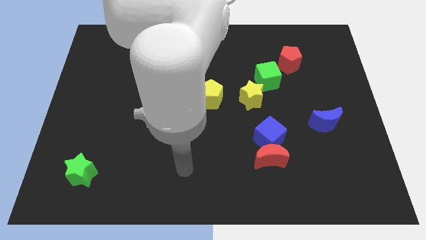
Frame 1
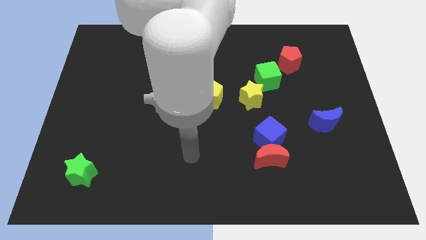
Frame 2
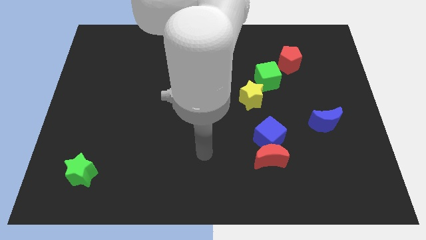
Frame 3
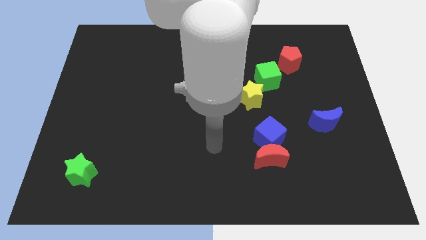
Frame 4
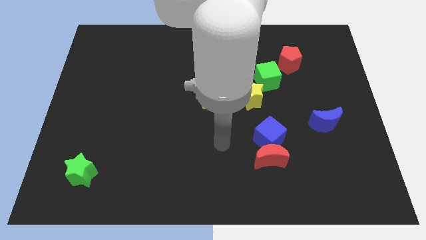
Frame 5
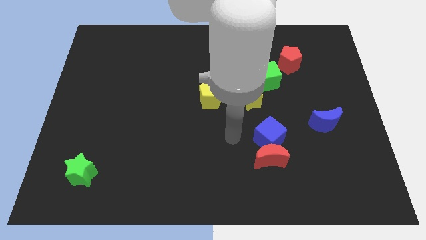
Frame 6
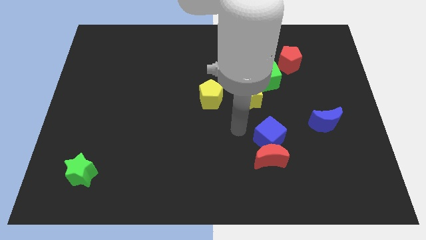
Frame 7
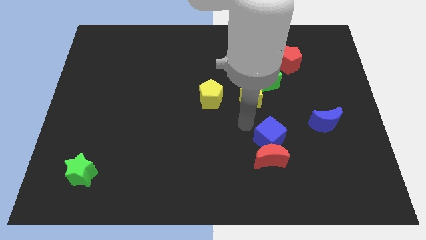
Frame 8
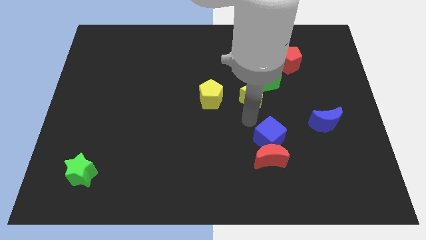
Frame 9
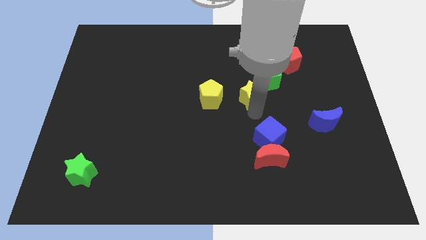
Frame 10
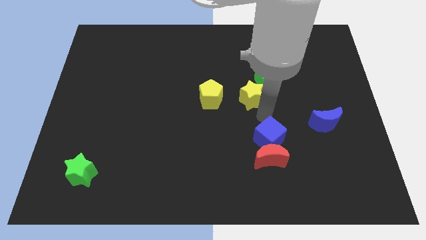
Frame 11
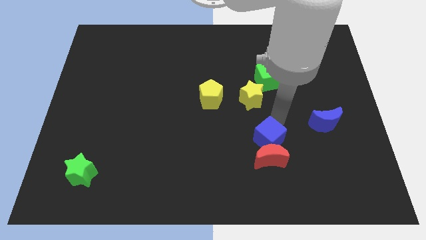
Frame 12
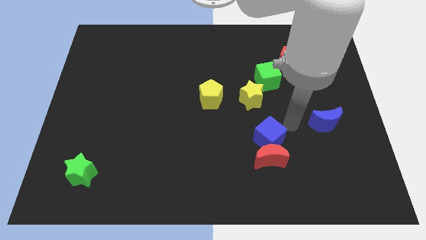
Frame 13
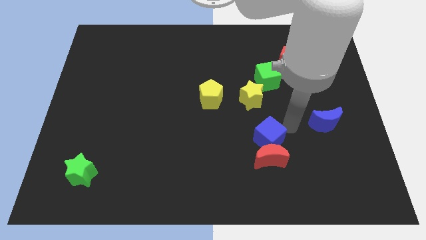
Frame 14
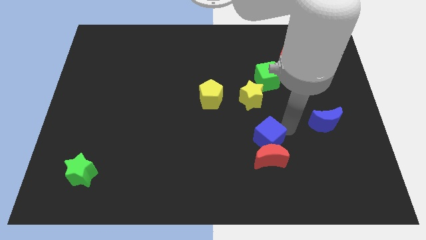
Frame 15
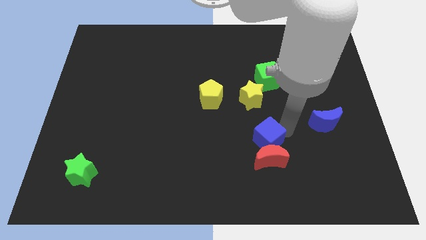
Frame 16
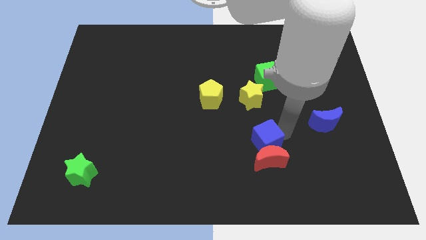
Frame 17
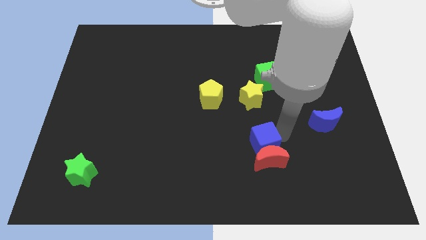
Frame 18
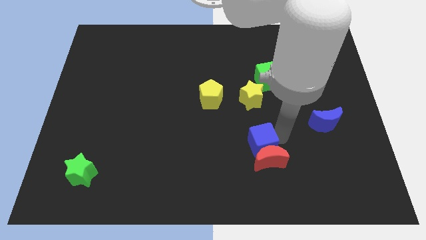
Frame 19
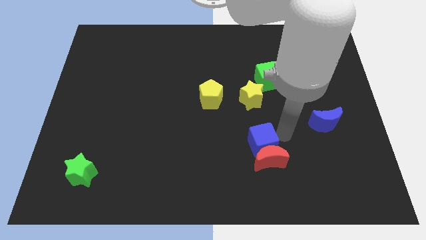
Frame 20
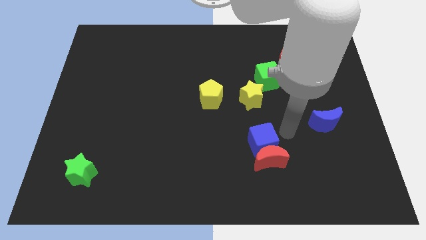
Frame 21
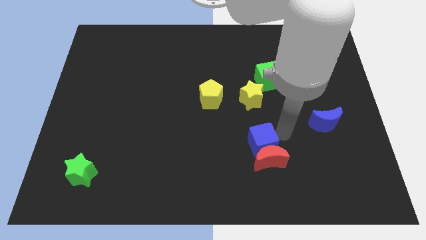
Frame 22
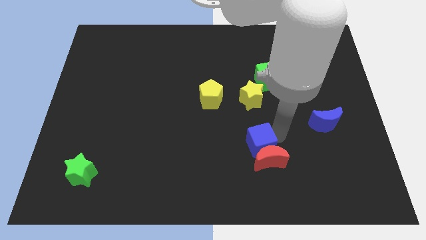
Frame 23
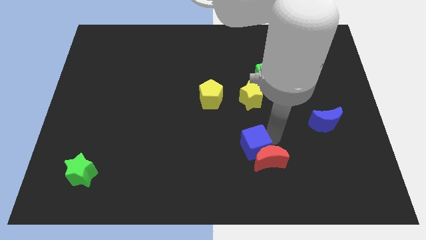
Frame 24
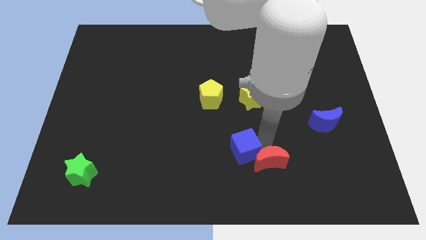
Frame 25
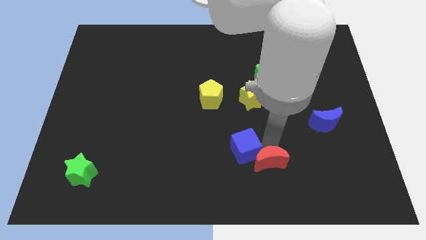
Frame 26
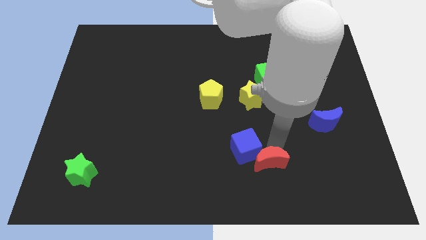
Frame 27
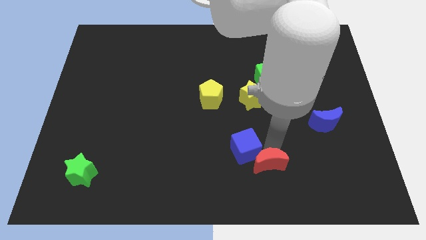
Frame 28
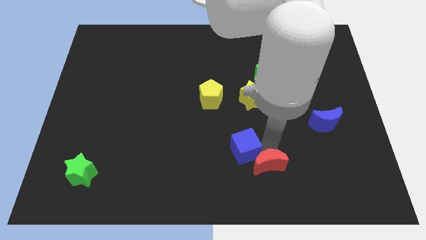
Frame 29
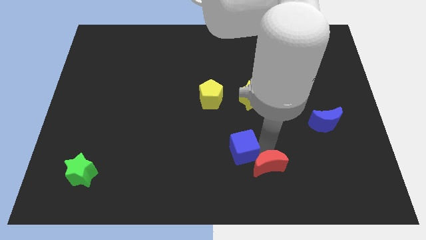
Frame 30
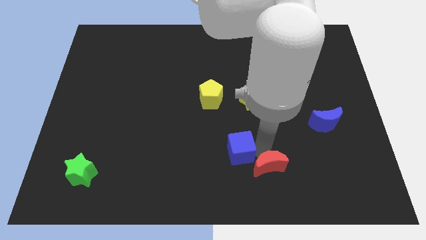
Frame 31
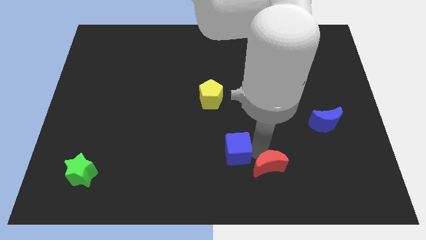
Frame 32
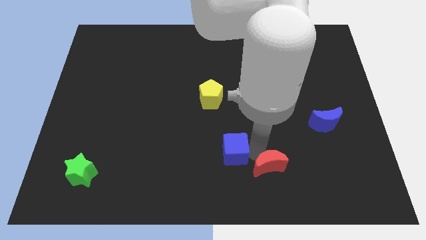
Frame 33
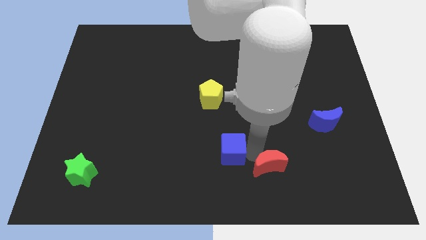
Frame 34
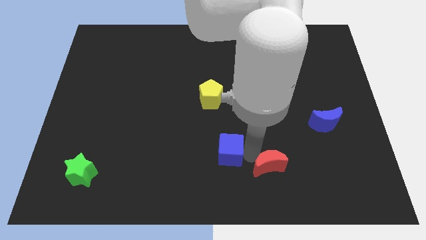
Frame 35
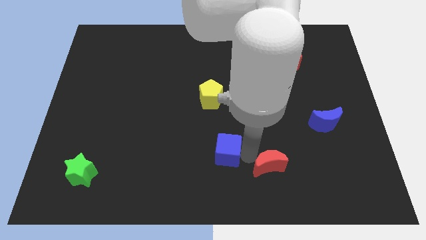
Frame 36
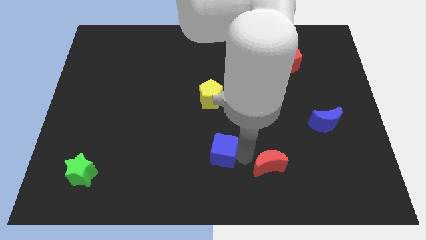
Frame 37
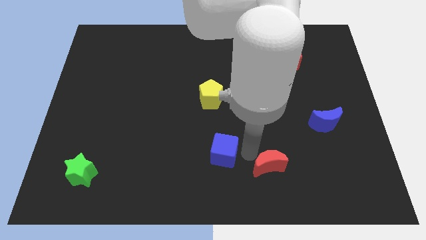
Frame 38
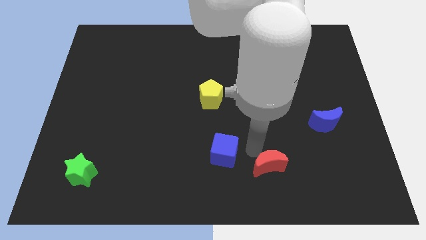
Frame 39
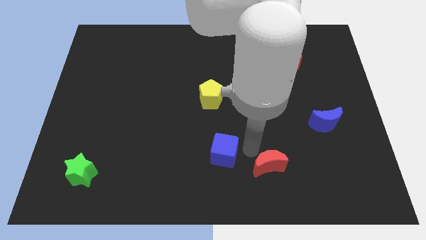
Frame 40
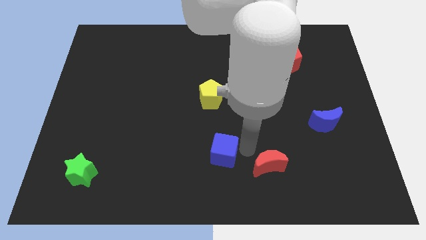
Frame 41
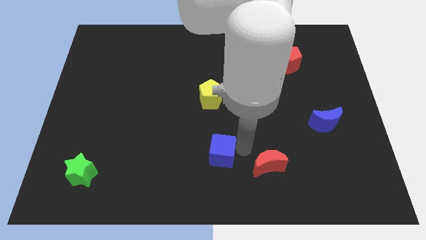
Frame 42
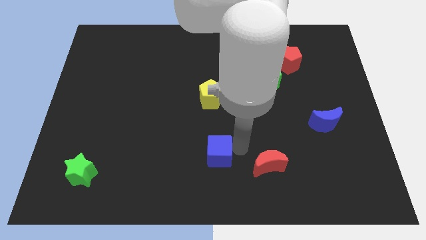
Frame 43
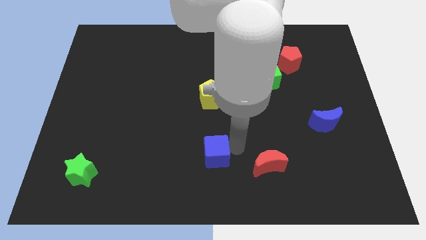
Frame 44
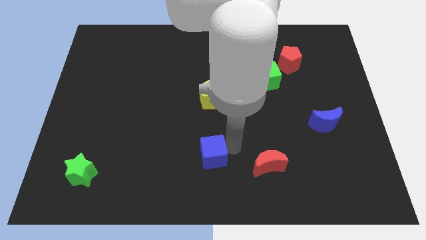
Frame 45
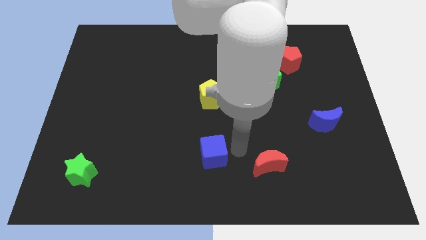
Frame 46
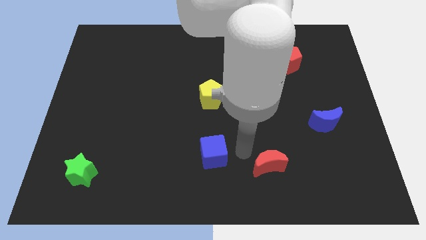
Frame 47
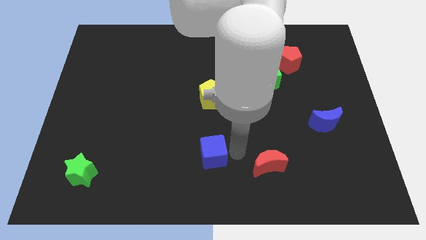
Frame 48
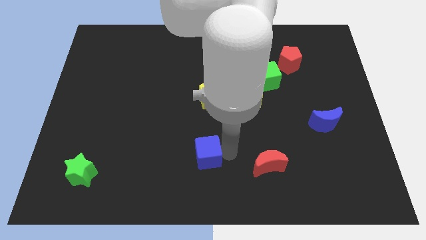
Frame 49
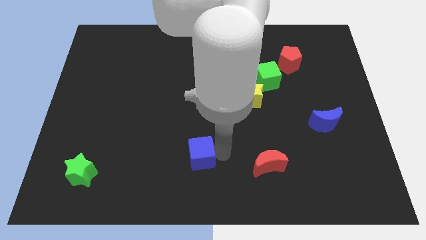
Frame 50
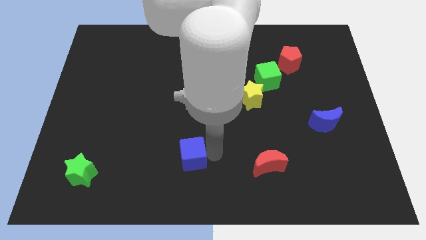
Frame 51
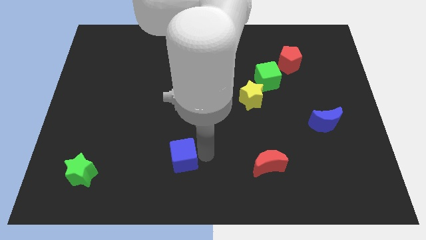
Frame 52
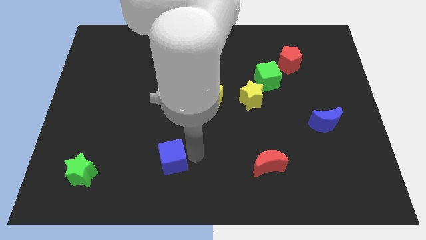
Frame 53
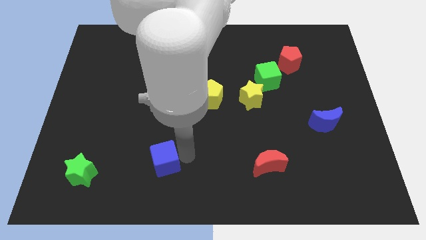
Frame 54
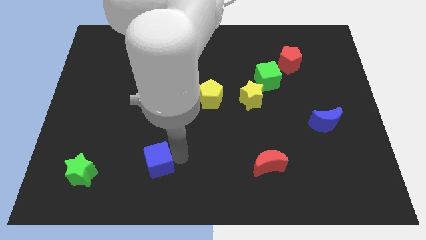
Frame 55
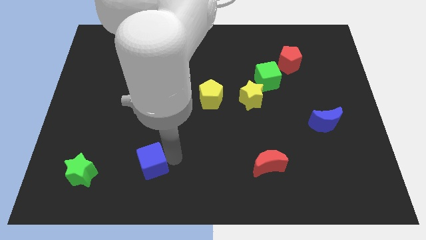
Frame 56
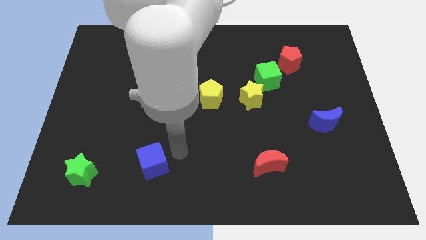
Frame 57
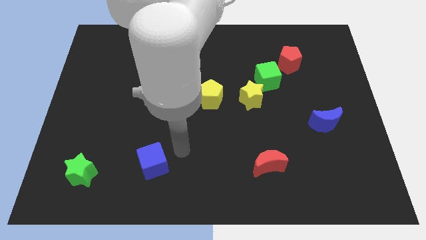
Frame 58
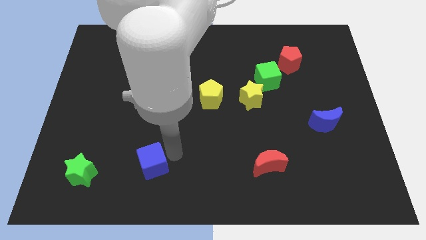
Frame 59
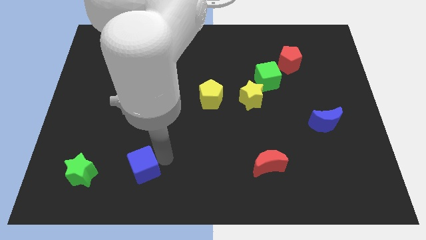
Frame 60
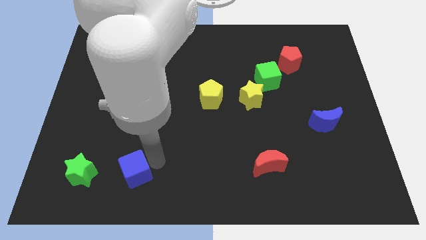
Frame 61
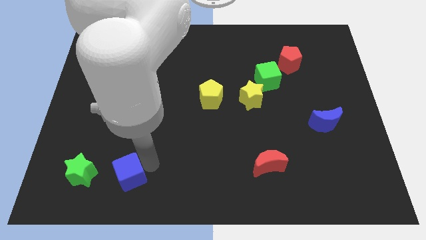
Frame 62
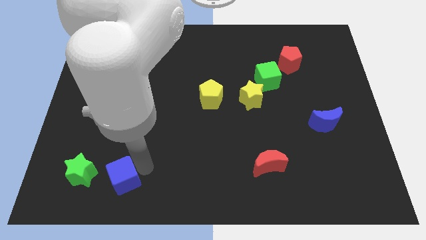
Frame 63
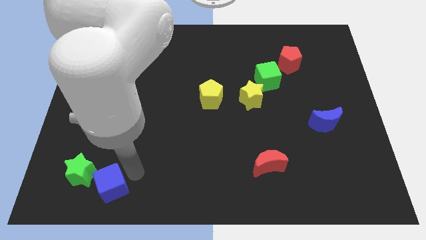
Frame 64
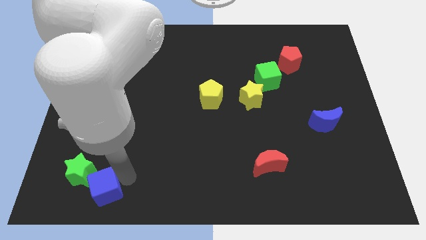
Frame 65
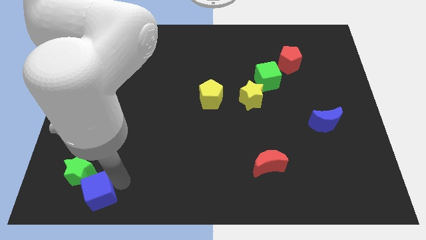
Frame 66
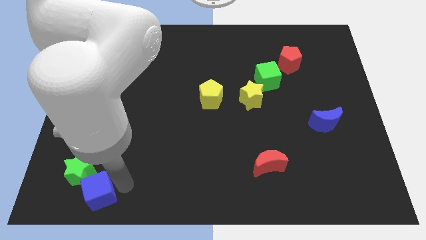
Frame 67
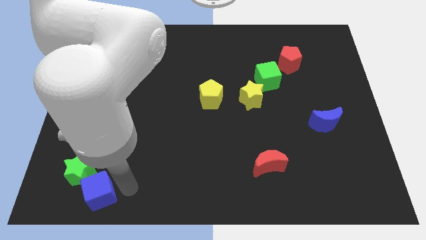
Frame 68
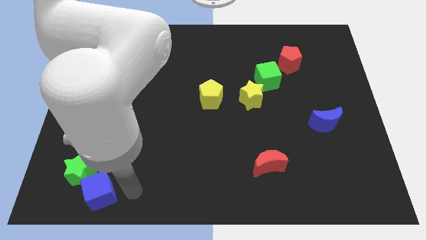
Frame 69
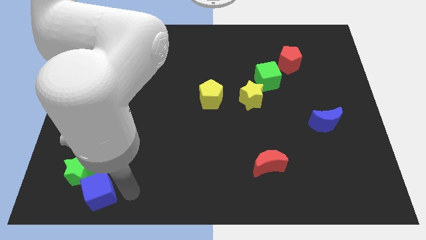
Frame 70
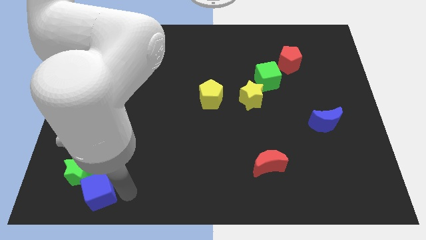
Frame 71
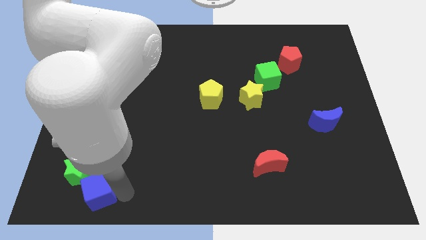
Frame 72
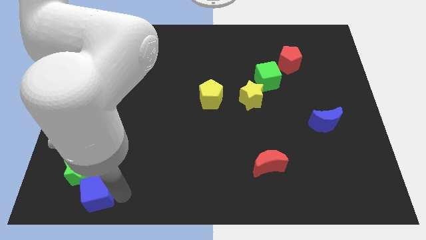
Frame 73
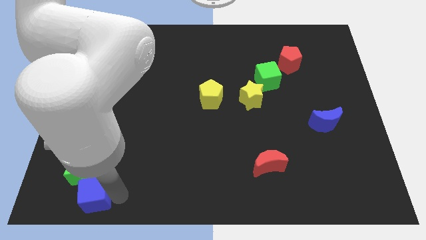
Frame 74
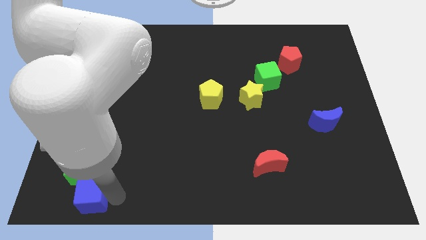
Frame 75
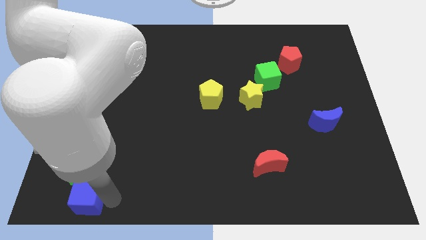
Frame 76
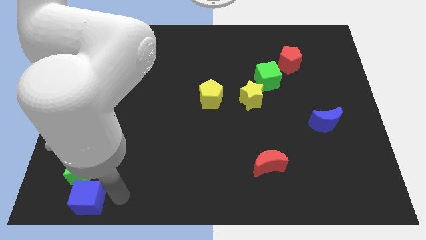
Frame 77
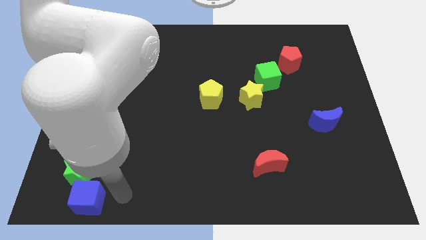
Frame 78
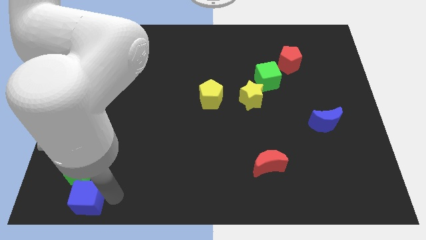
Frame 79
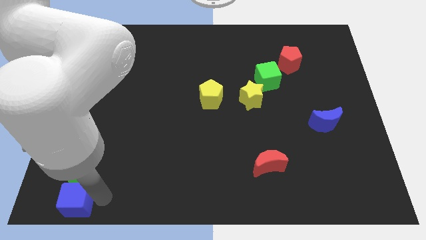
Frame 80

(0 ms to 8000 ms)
slide the blue cube to the lower left corner
